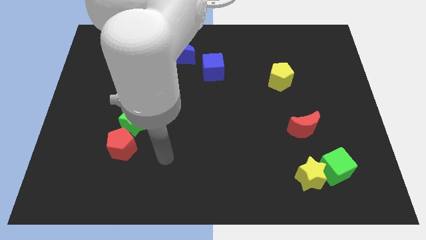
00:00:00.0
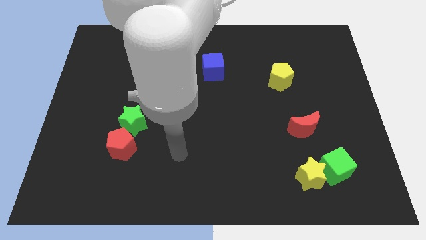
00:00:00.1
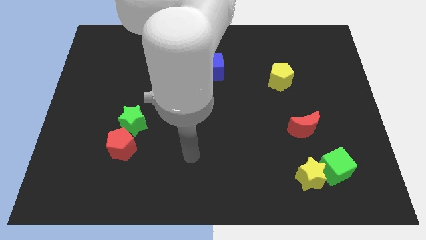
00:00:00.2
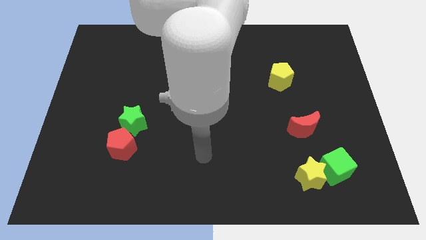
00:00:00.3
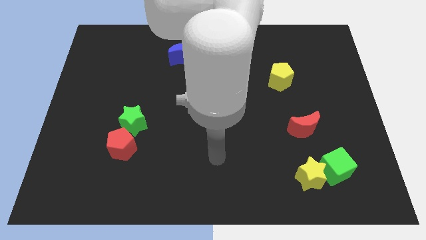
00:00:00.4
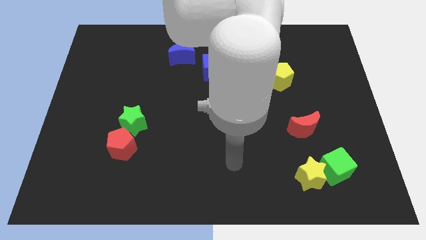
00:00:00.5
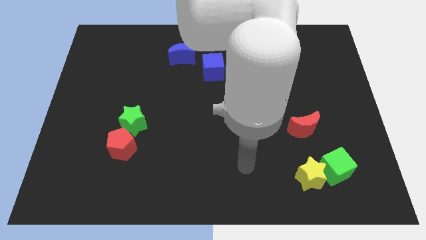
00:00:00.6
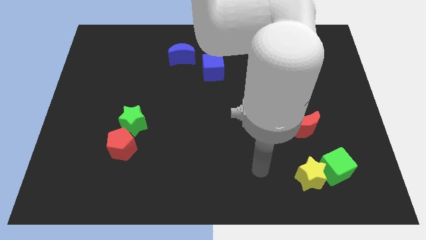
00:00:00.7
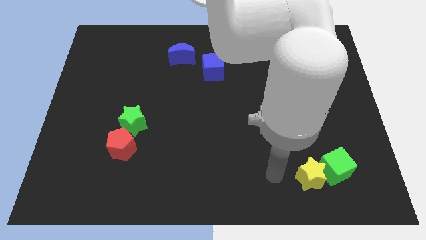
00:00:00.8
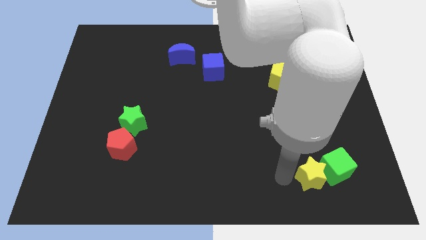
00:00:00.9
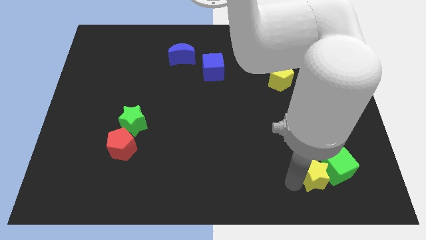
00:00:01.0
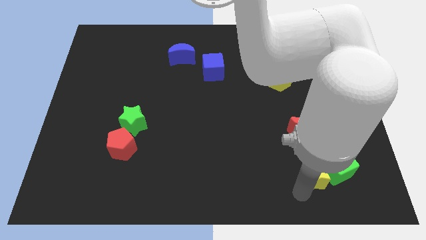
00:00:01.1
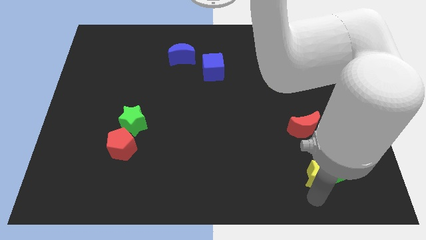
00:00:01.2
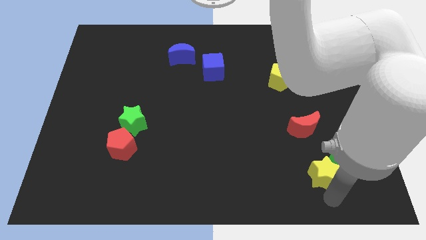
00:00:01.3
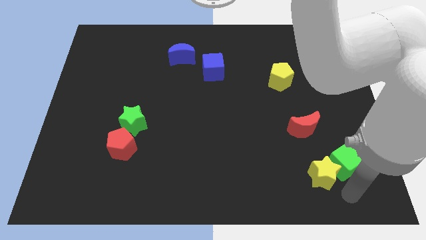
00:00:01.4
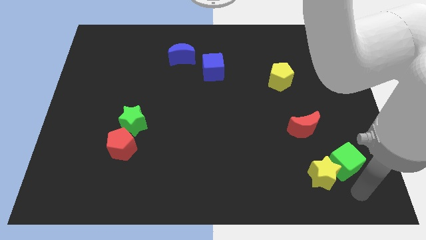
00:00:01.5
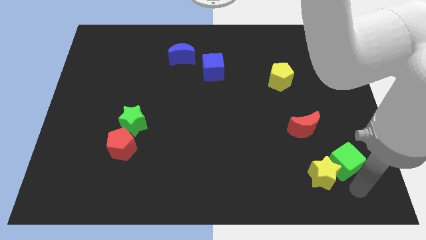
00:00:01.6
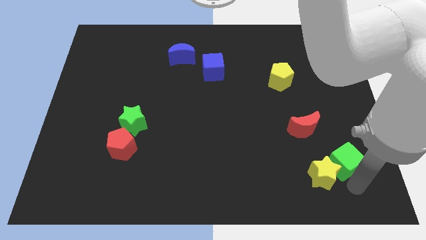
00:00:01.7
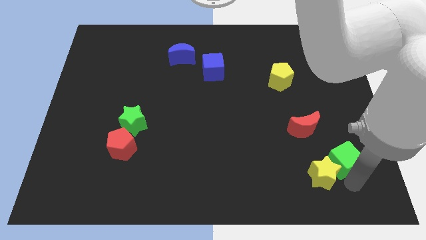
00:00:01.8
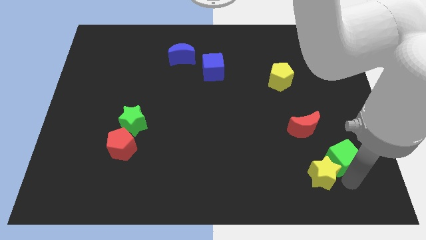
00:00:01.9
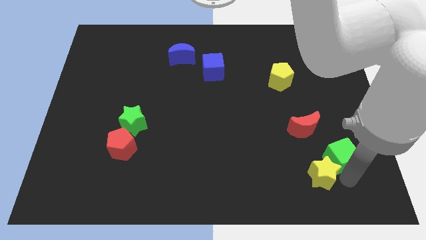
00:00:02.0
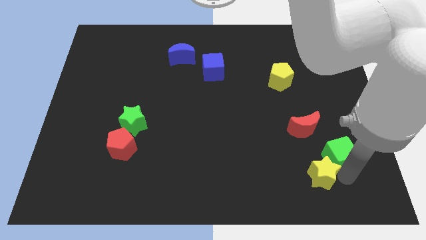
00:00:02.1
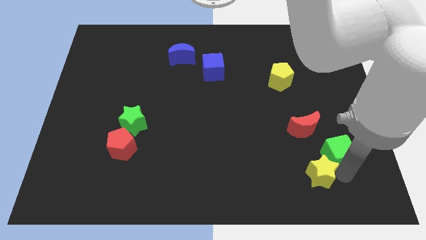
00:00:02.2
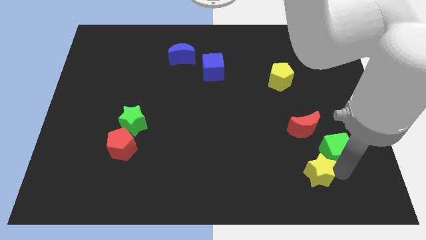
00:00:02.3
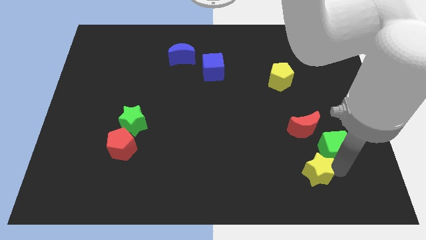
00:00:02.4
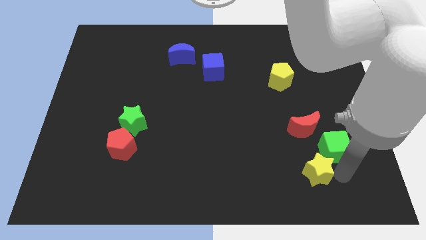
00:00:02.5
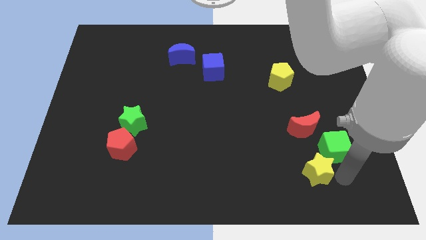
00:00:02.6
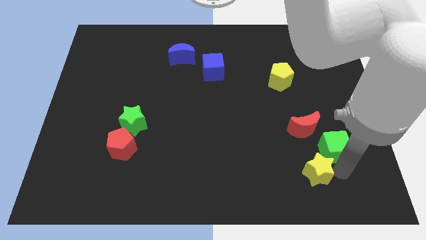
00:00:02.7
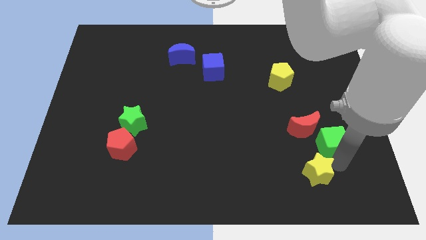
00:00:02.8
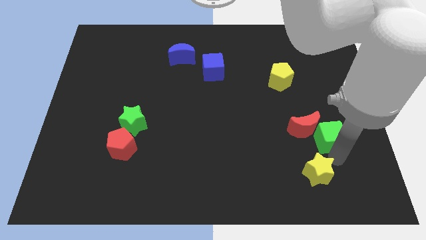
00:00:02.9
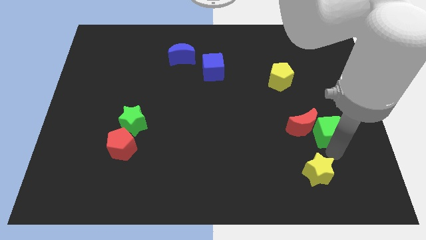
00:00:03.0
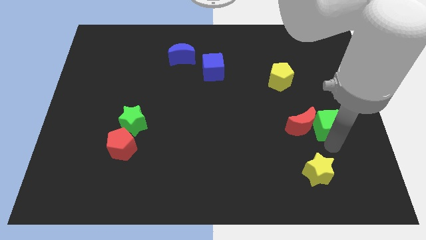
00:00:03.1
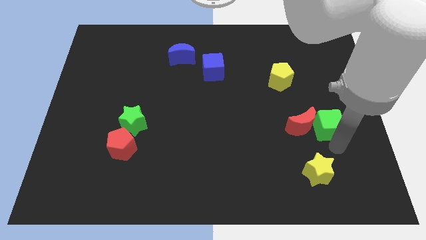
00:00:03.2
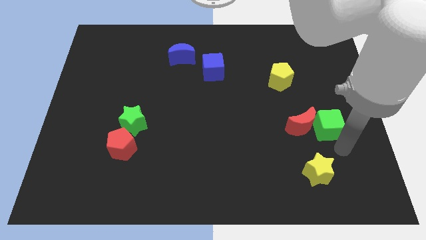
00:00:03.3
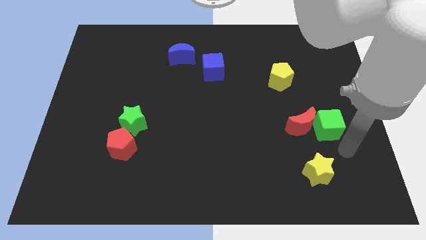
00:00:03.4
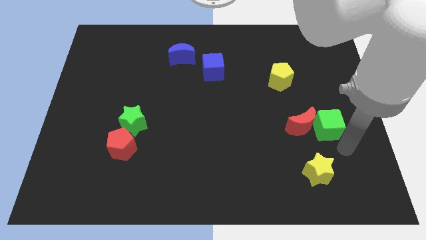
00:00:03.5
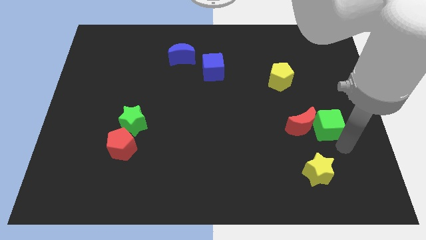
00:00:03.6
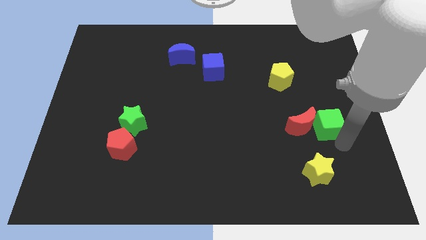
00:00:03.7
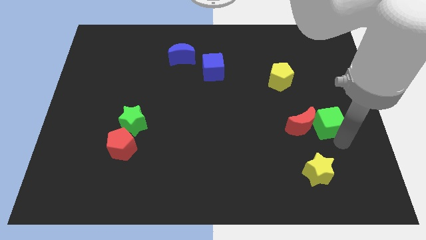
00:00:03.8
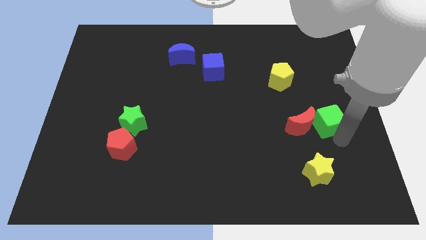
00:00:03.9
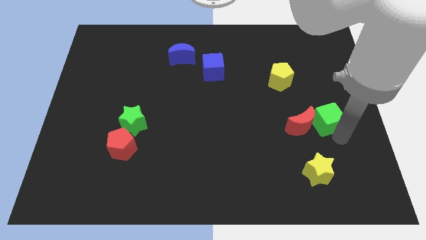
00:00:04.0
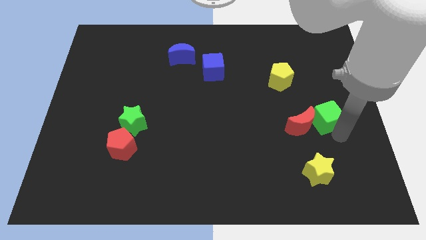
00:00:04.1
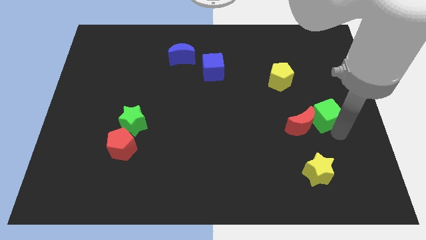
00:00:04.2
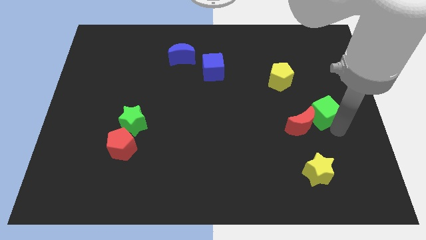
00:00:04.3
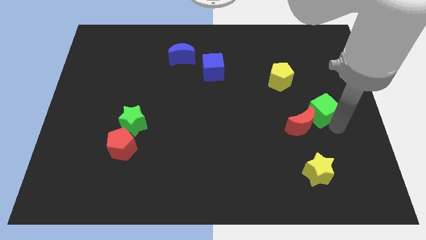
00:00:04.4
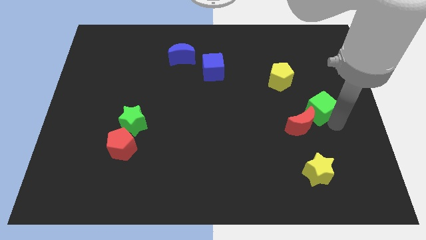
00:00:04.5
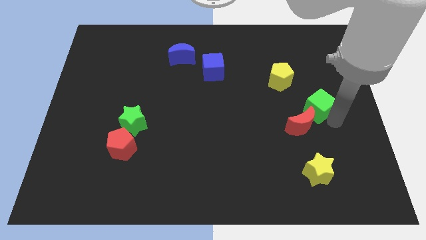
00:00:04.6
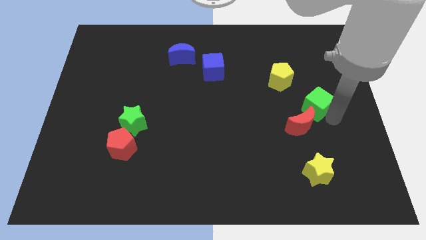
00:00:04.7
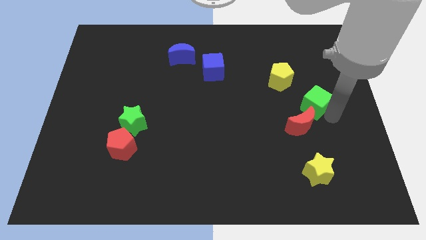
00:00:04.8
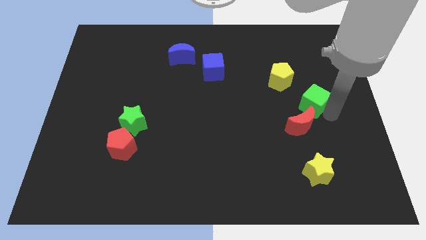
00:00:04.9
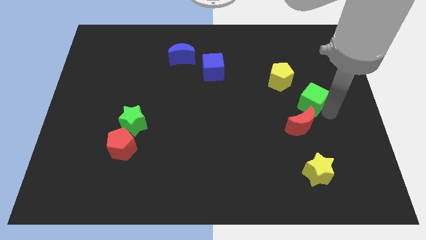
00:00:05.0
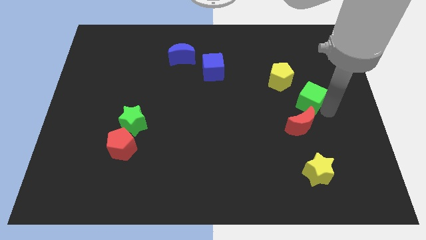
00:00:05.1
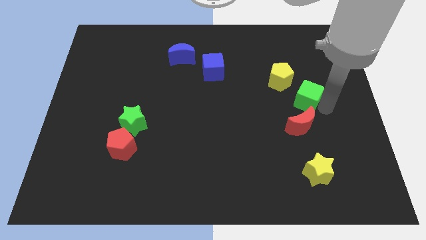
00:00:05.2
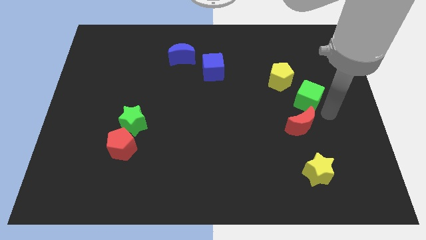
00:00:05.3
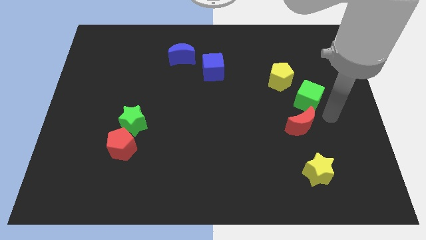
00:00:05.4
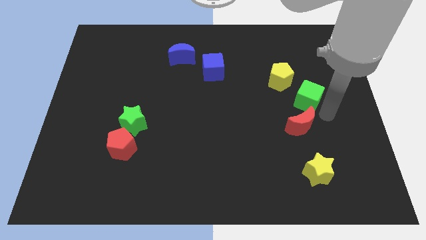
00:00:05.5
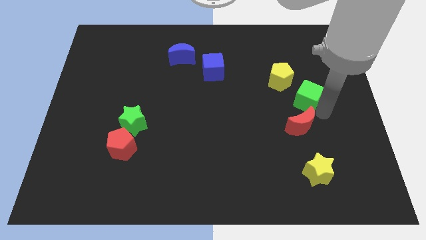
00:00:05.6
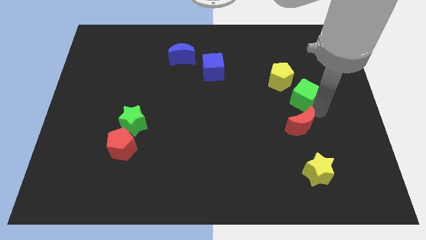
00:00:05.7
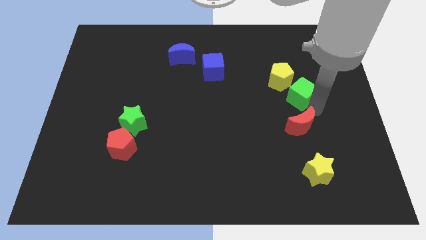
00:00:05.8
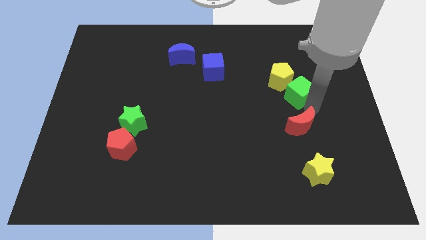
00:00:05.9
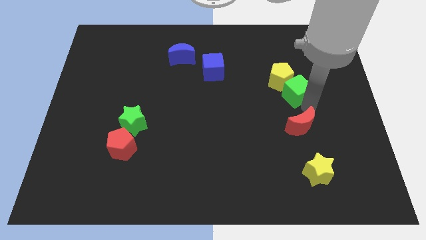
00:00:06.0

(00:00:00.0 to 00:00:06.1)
push the green cube to the yellow pentagon

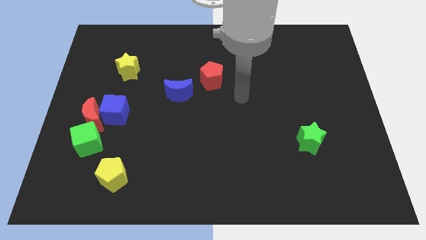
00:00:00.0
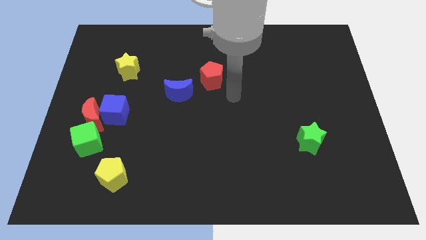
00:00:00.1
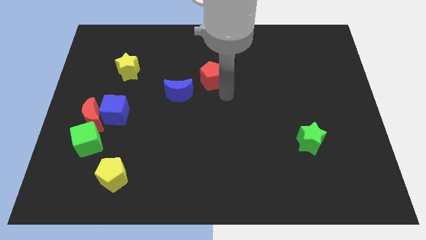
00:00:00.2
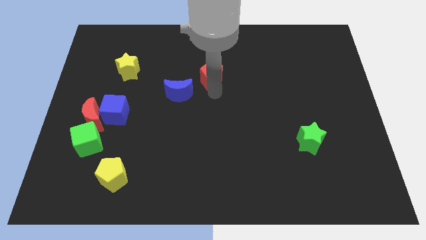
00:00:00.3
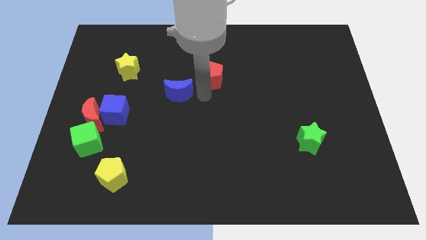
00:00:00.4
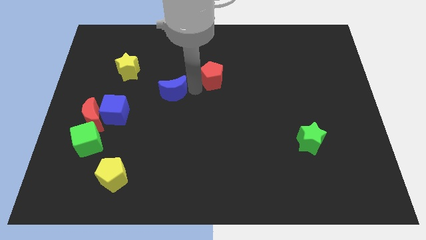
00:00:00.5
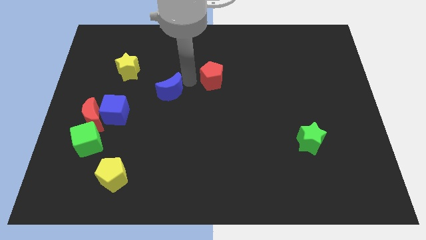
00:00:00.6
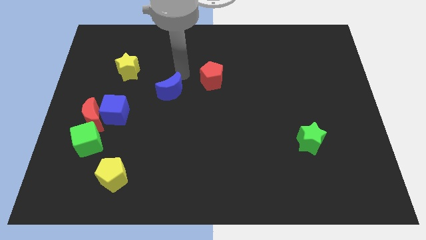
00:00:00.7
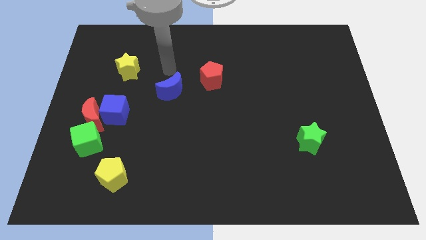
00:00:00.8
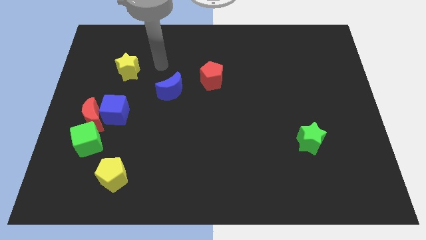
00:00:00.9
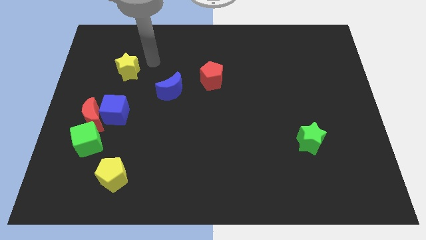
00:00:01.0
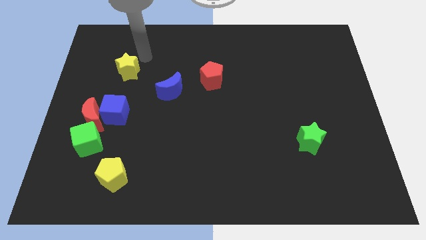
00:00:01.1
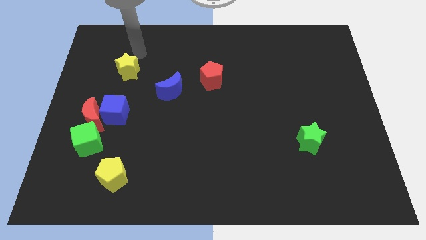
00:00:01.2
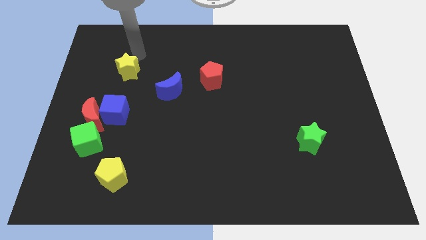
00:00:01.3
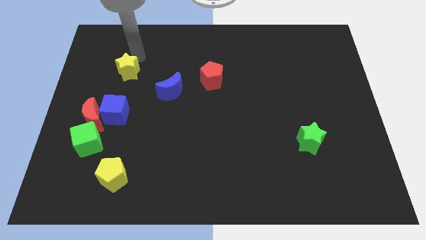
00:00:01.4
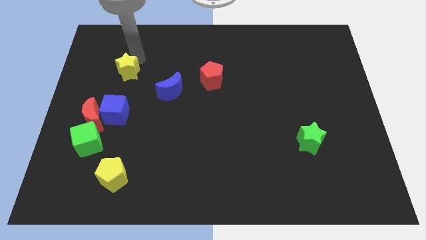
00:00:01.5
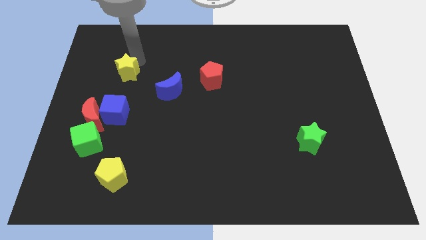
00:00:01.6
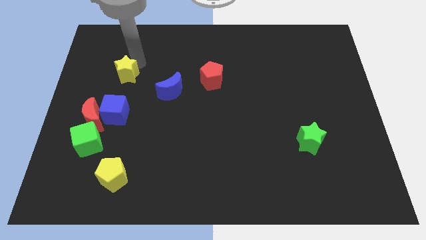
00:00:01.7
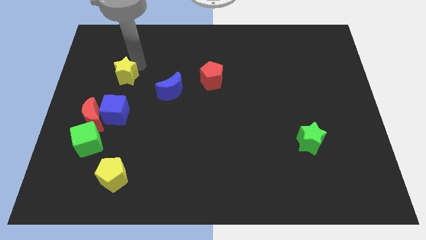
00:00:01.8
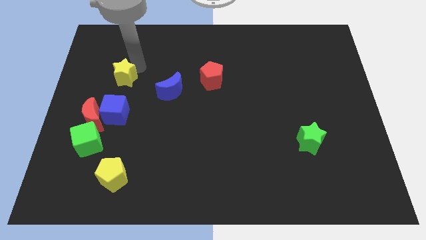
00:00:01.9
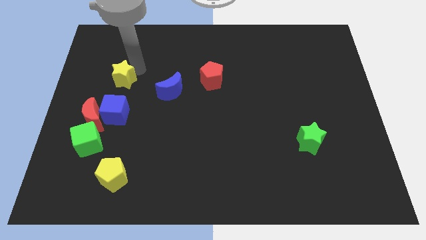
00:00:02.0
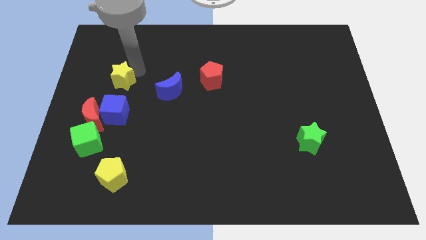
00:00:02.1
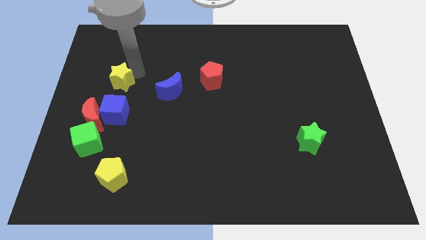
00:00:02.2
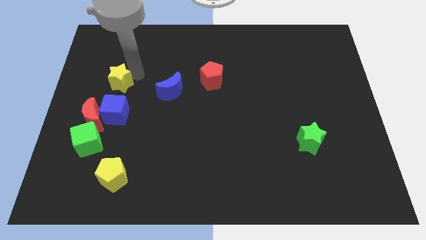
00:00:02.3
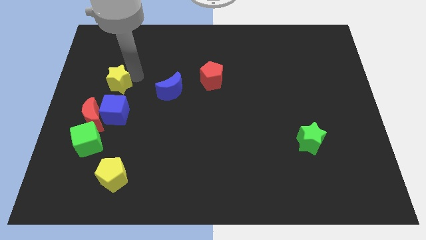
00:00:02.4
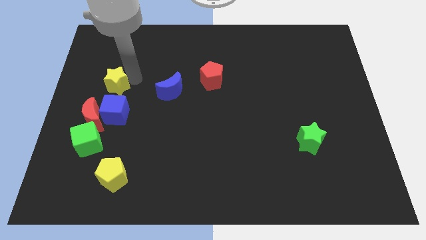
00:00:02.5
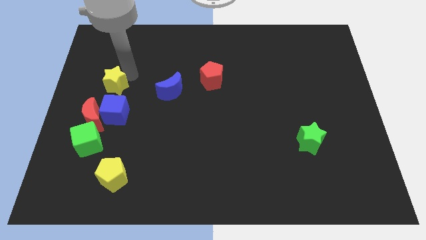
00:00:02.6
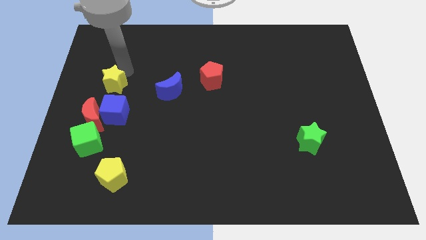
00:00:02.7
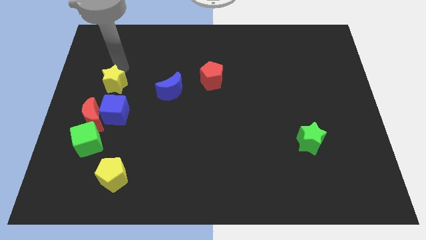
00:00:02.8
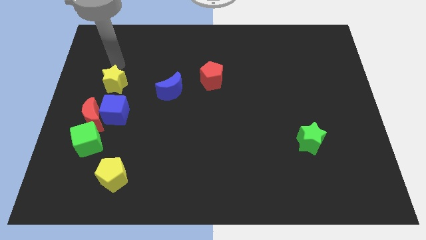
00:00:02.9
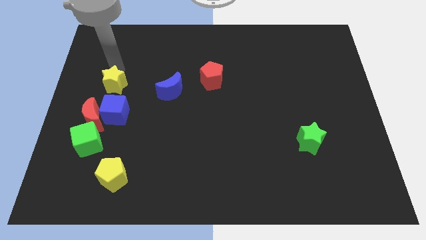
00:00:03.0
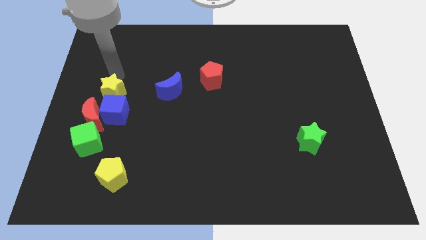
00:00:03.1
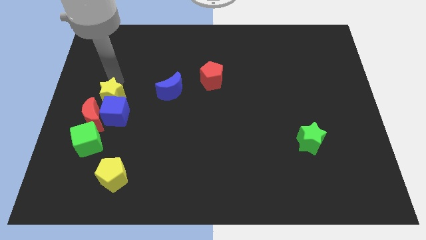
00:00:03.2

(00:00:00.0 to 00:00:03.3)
move the yellow star to the blue cube
